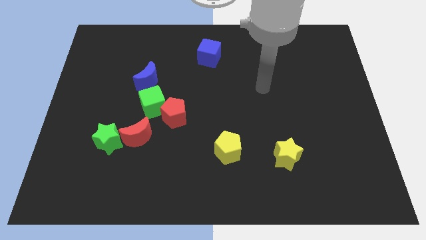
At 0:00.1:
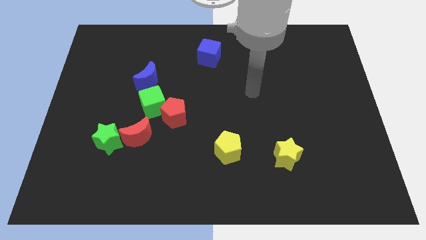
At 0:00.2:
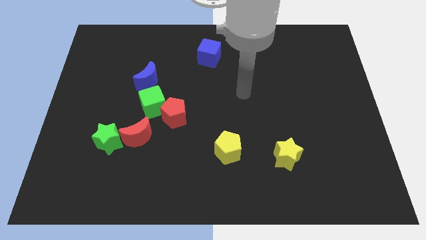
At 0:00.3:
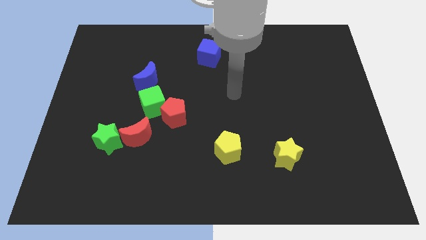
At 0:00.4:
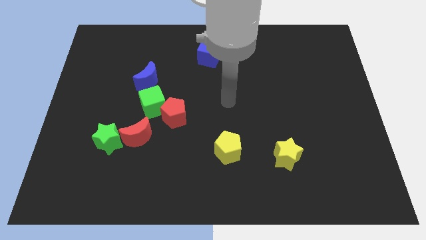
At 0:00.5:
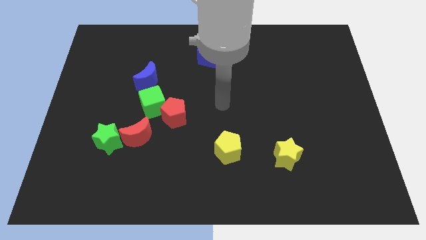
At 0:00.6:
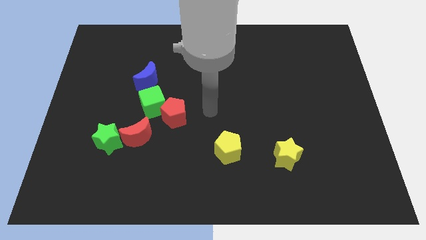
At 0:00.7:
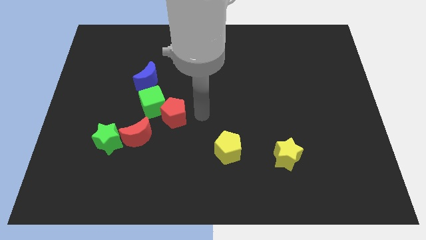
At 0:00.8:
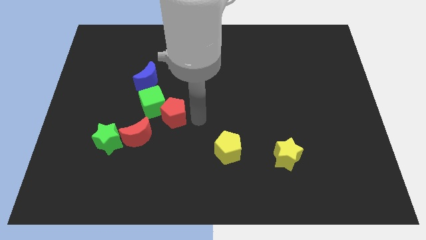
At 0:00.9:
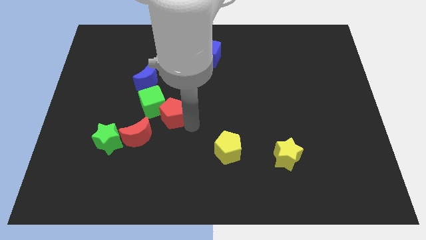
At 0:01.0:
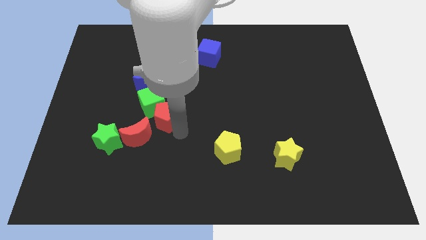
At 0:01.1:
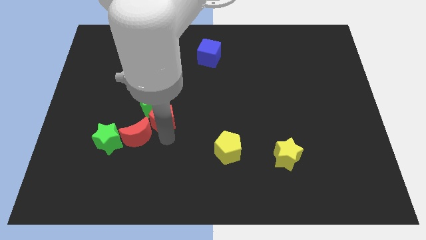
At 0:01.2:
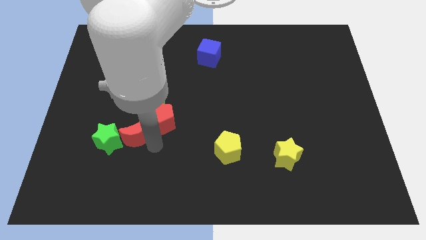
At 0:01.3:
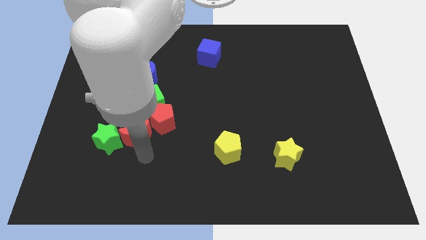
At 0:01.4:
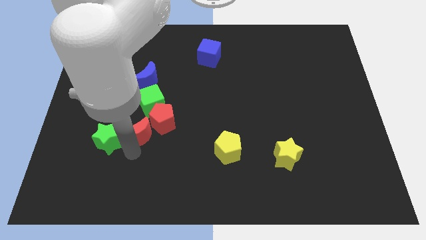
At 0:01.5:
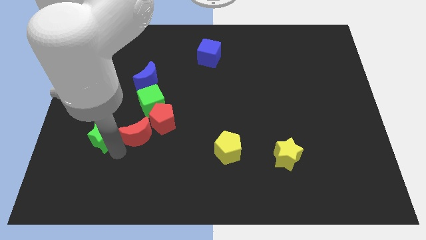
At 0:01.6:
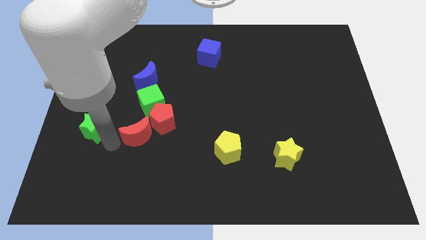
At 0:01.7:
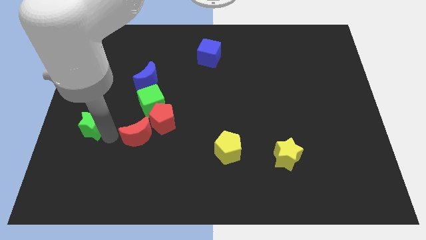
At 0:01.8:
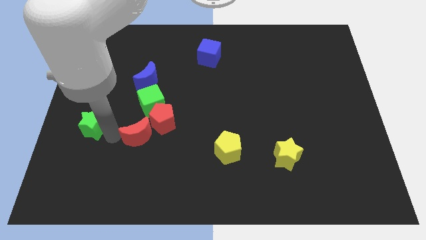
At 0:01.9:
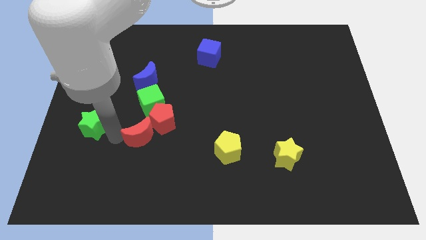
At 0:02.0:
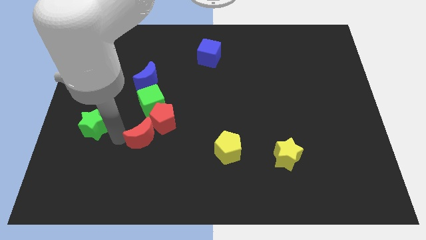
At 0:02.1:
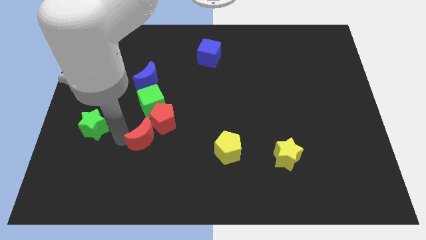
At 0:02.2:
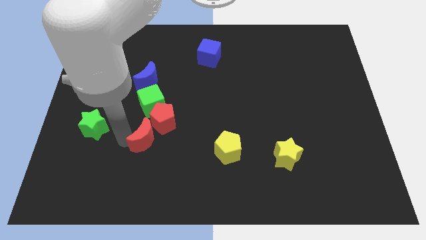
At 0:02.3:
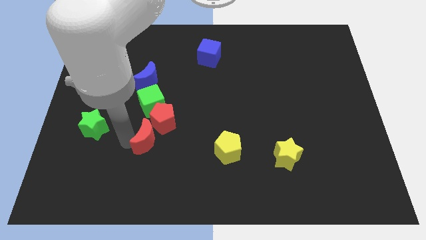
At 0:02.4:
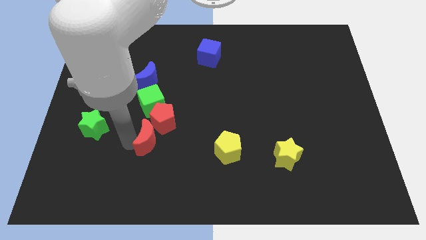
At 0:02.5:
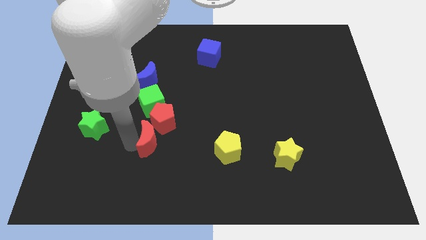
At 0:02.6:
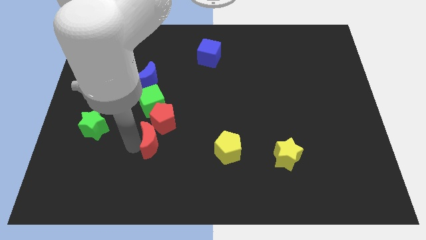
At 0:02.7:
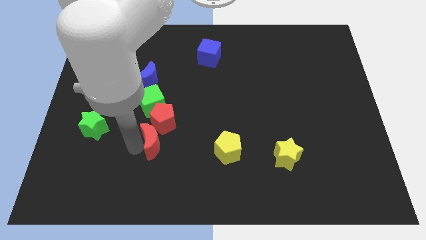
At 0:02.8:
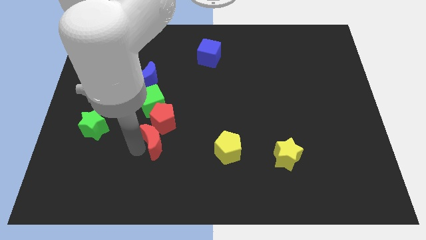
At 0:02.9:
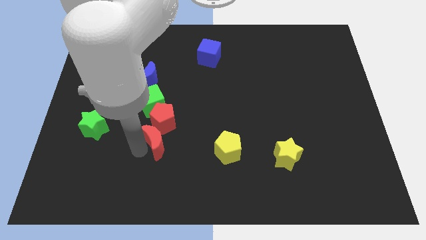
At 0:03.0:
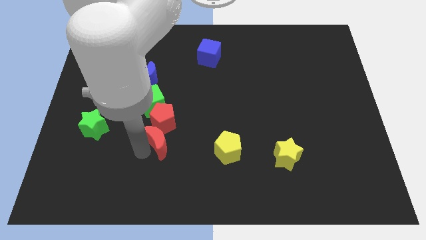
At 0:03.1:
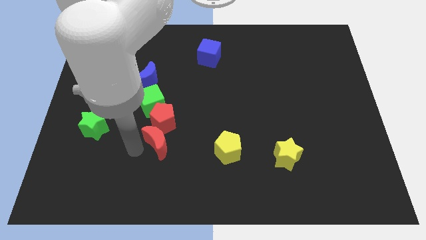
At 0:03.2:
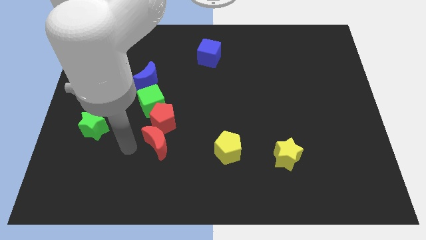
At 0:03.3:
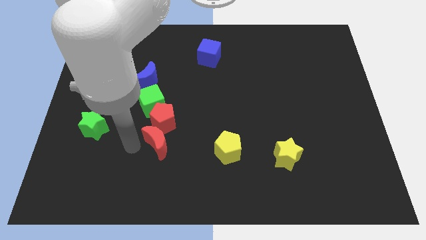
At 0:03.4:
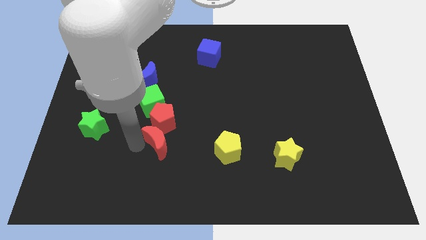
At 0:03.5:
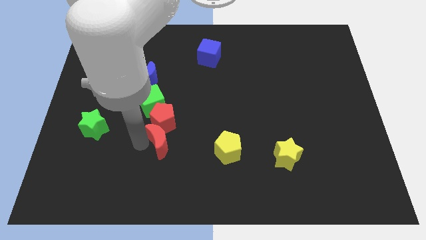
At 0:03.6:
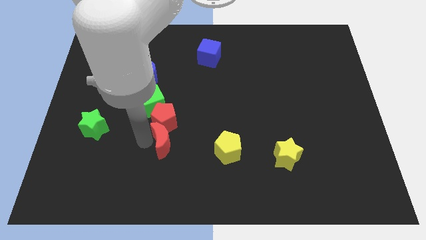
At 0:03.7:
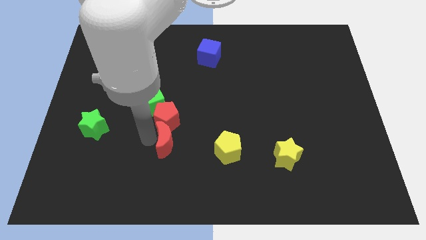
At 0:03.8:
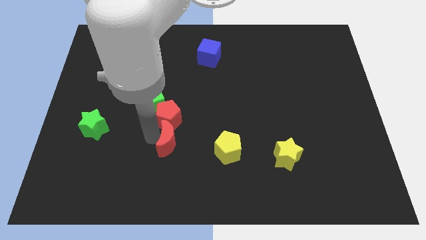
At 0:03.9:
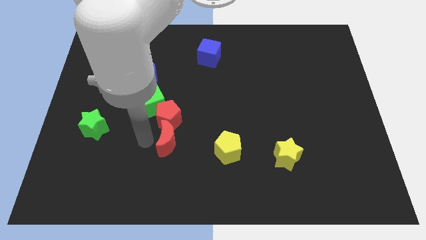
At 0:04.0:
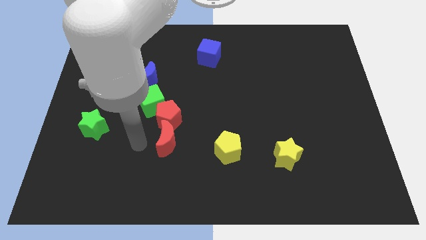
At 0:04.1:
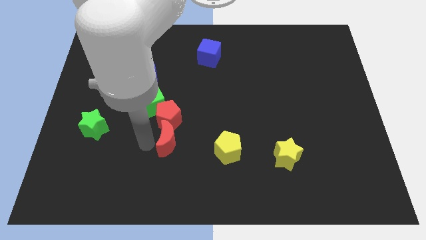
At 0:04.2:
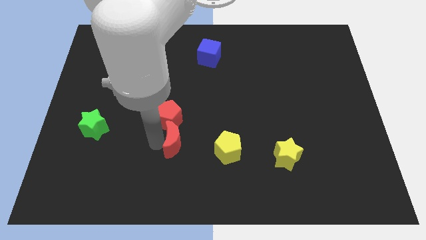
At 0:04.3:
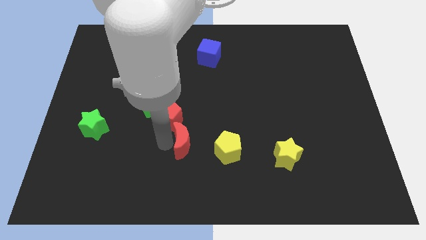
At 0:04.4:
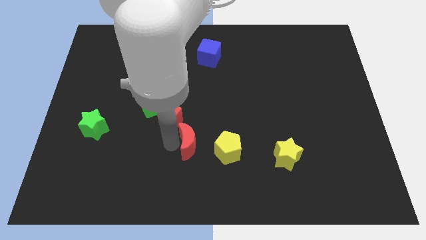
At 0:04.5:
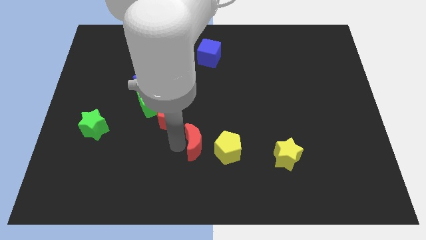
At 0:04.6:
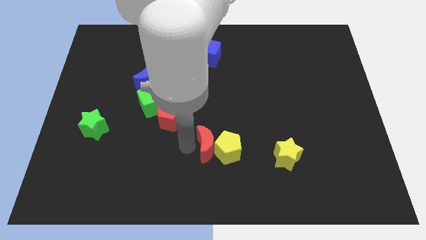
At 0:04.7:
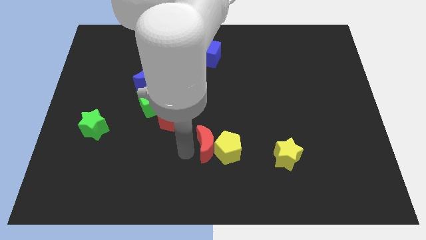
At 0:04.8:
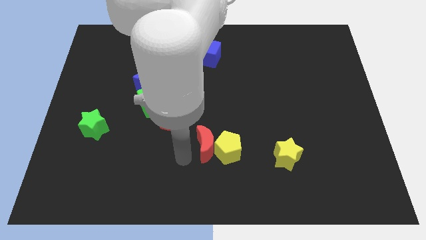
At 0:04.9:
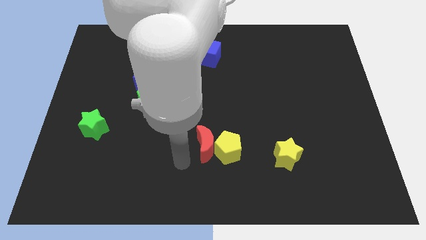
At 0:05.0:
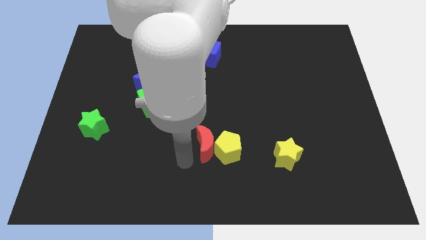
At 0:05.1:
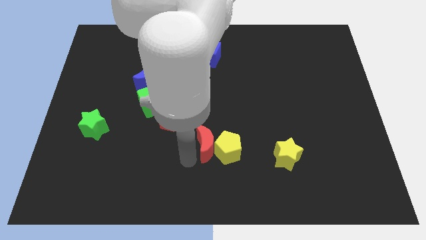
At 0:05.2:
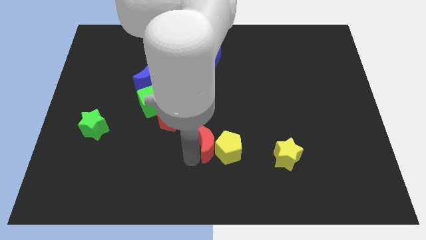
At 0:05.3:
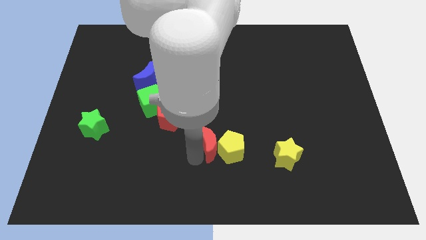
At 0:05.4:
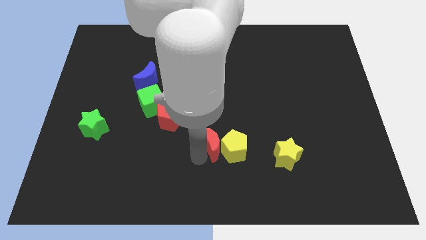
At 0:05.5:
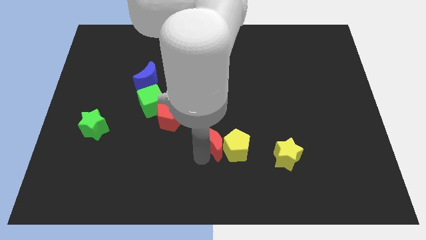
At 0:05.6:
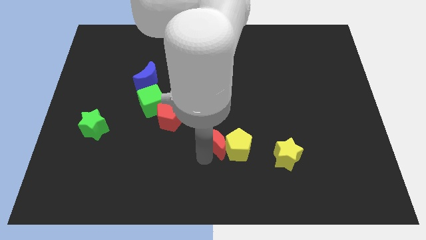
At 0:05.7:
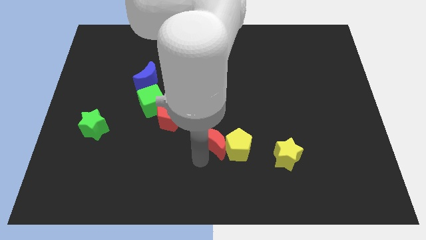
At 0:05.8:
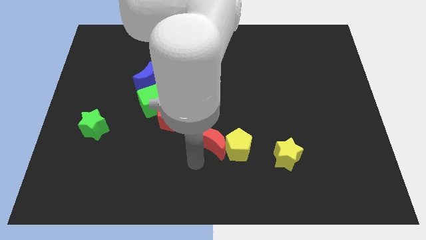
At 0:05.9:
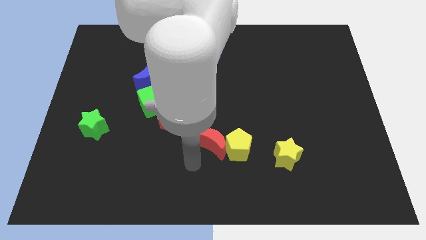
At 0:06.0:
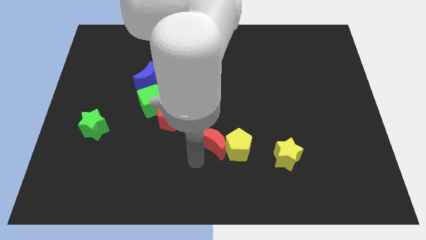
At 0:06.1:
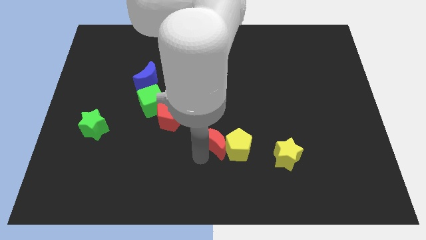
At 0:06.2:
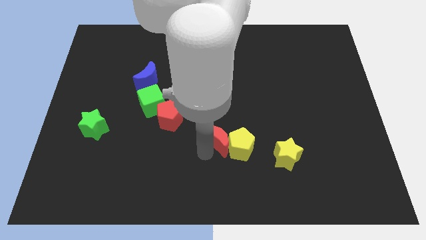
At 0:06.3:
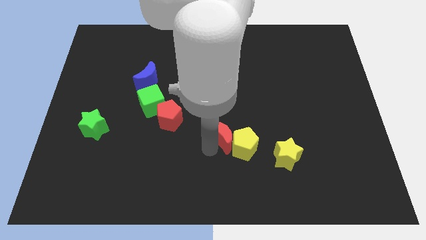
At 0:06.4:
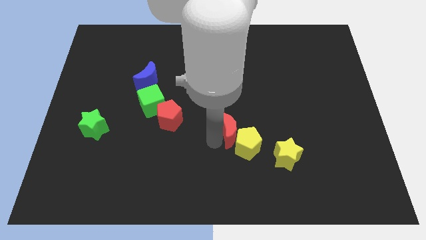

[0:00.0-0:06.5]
slide the red moon right

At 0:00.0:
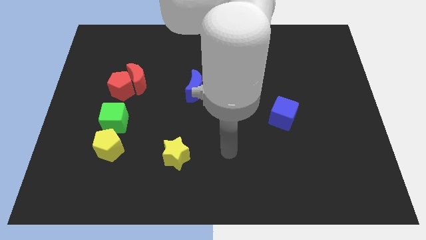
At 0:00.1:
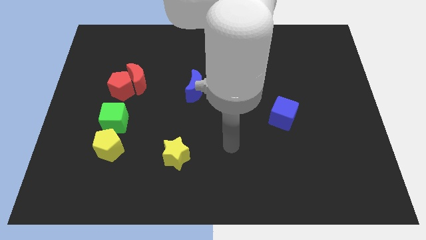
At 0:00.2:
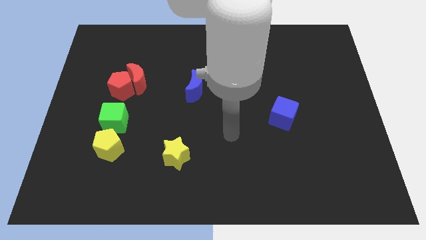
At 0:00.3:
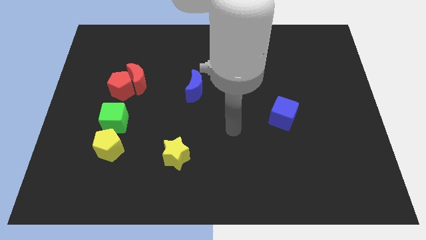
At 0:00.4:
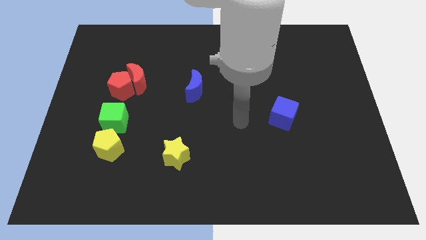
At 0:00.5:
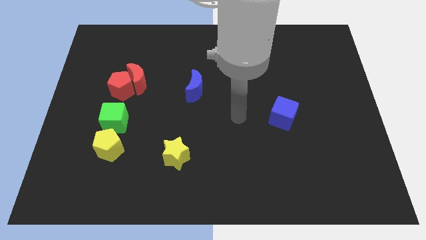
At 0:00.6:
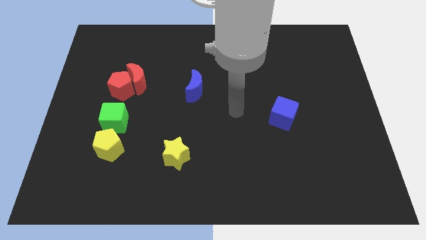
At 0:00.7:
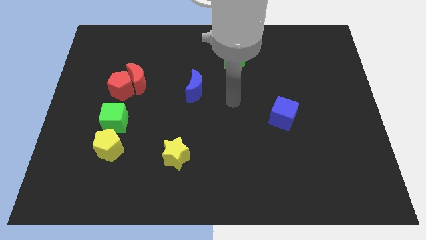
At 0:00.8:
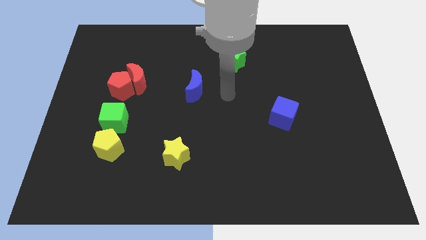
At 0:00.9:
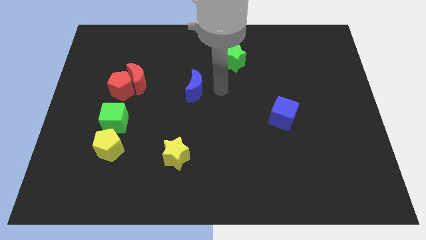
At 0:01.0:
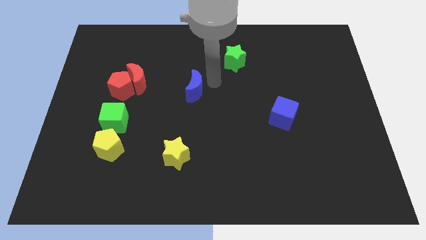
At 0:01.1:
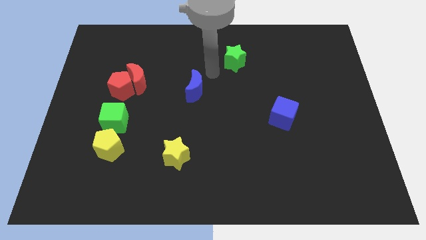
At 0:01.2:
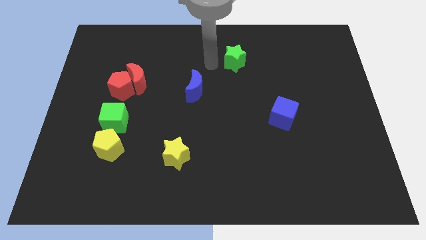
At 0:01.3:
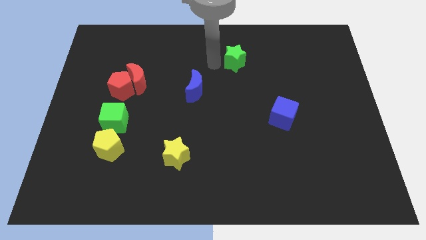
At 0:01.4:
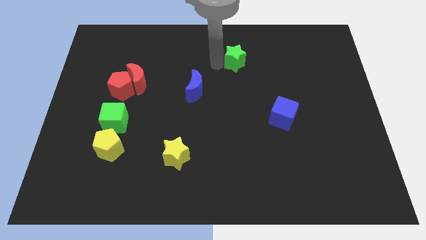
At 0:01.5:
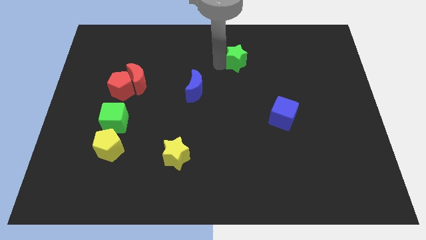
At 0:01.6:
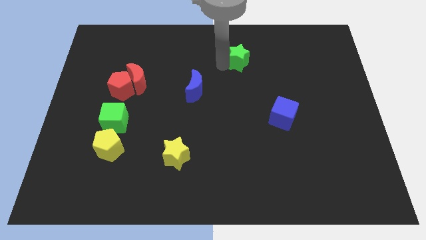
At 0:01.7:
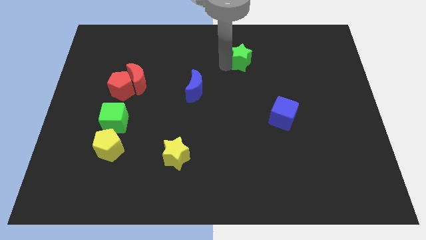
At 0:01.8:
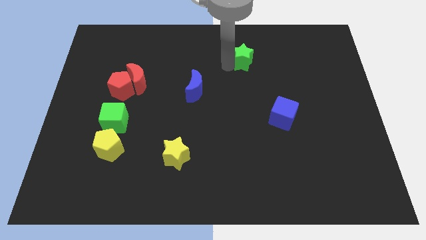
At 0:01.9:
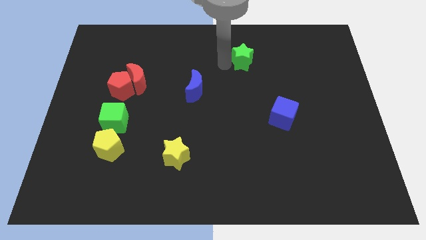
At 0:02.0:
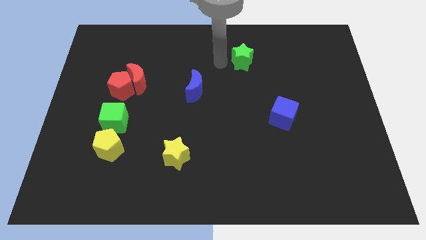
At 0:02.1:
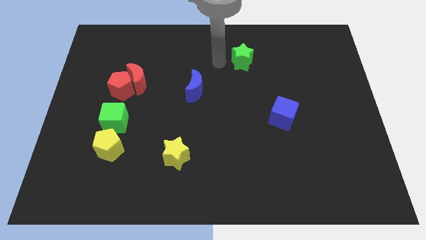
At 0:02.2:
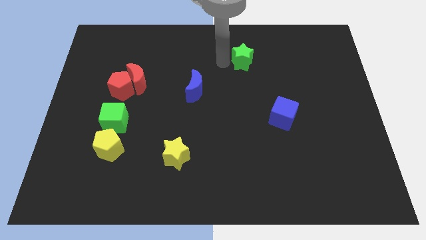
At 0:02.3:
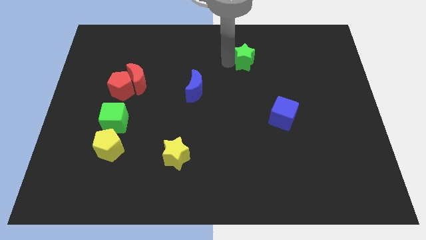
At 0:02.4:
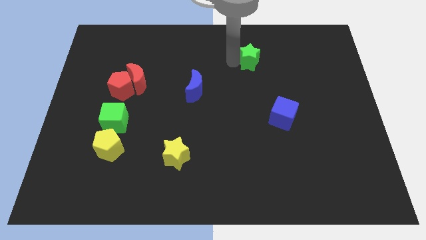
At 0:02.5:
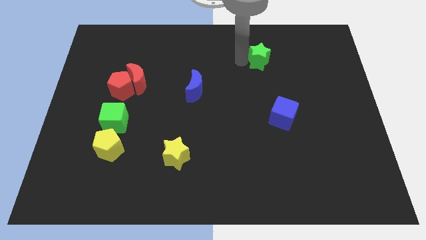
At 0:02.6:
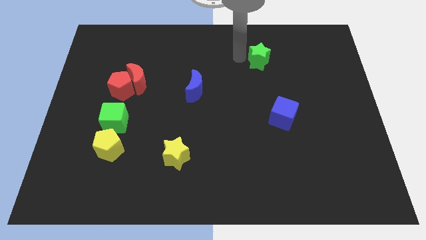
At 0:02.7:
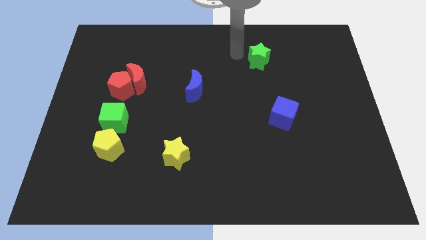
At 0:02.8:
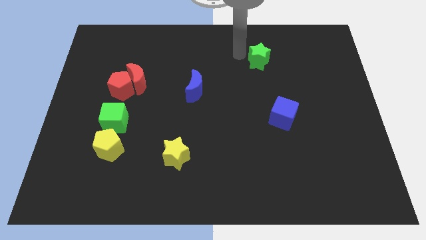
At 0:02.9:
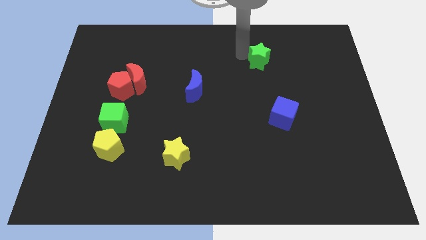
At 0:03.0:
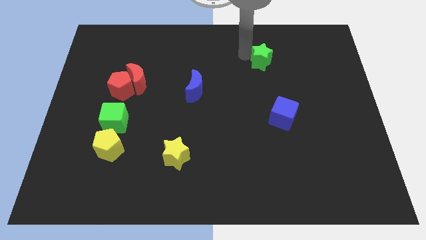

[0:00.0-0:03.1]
slide the green star to the right a bit
